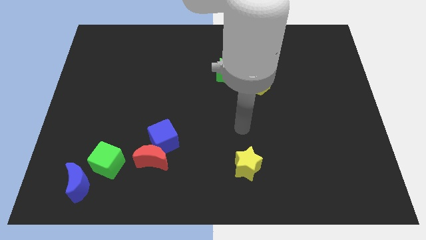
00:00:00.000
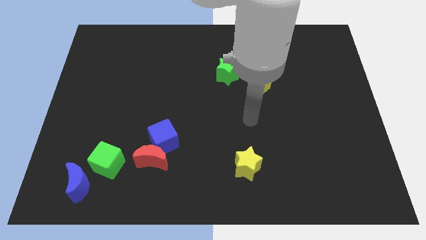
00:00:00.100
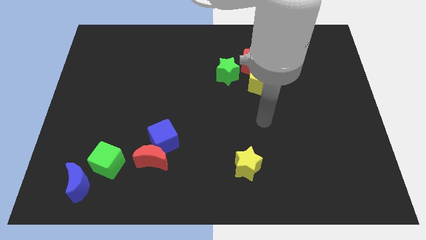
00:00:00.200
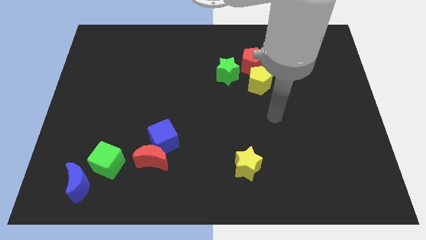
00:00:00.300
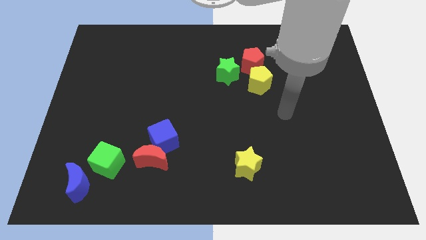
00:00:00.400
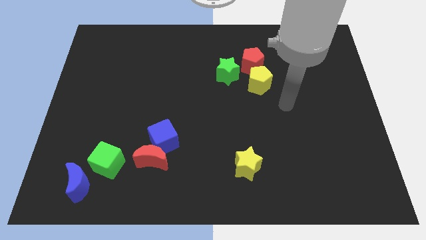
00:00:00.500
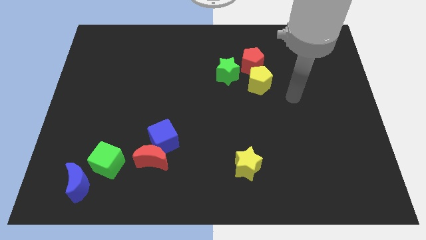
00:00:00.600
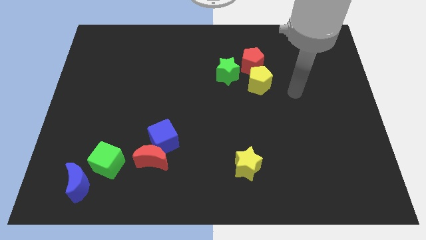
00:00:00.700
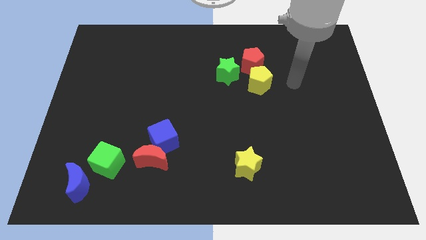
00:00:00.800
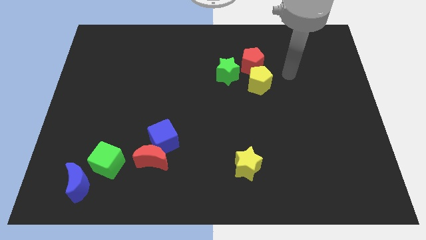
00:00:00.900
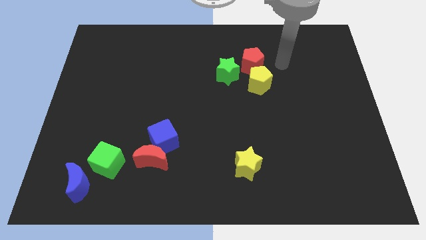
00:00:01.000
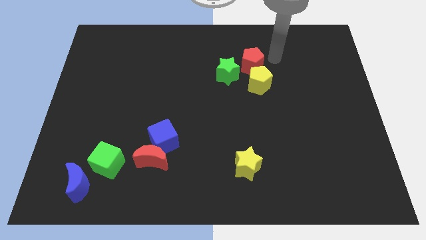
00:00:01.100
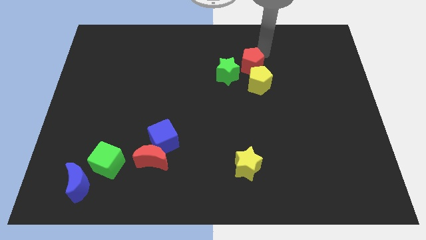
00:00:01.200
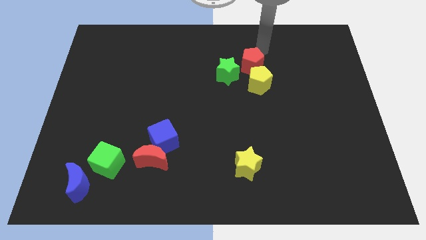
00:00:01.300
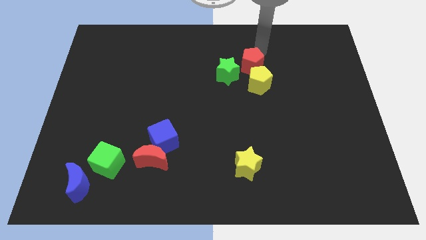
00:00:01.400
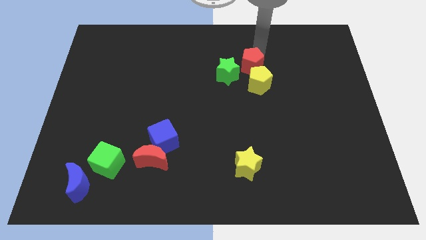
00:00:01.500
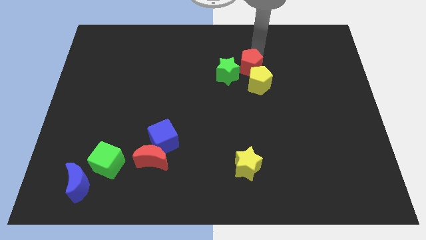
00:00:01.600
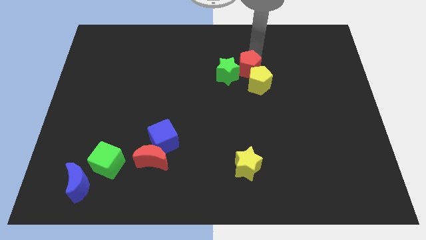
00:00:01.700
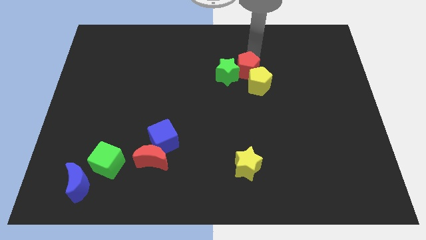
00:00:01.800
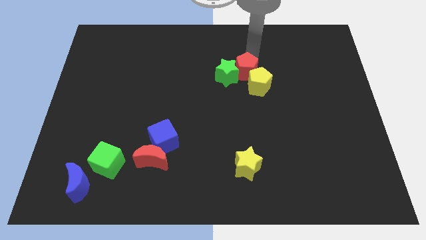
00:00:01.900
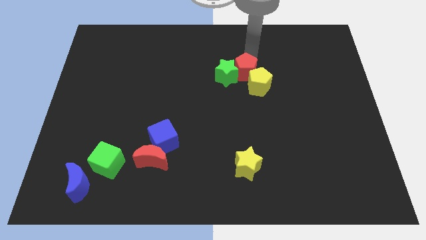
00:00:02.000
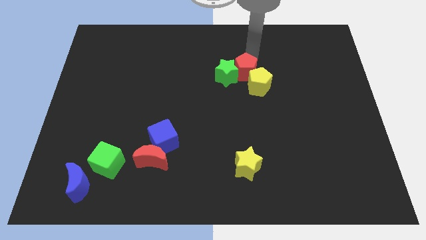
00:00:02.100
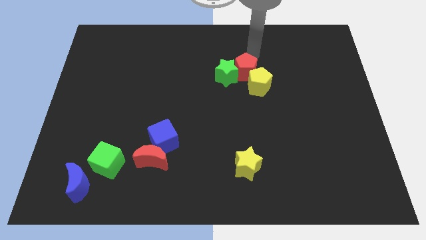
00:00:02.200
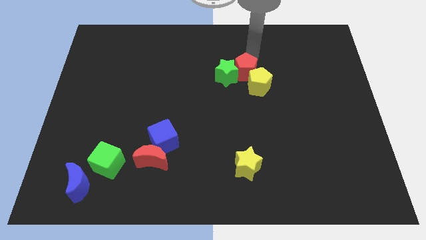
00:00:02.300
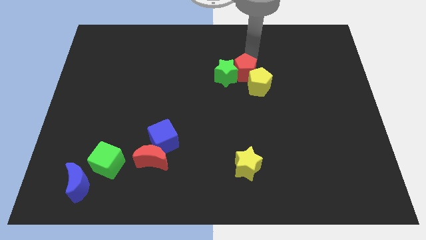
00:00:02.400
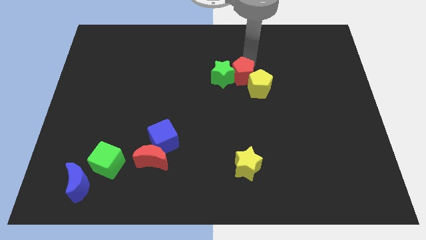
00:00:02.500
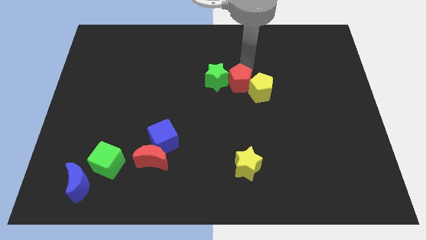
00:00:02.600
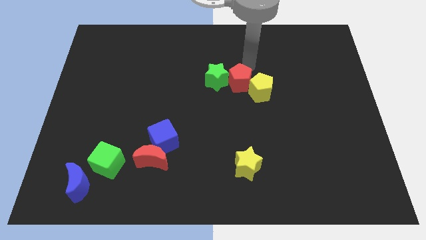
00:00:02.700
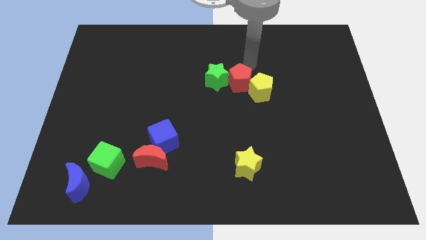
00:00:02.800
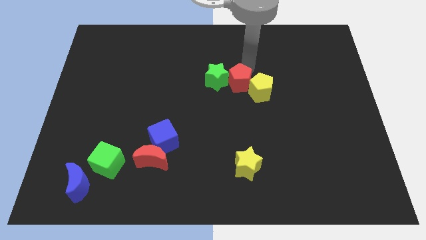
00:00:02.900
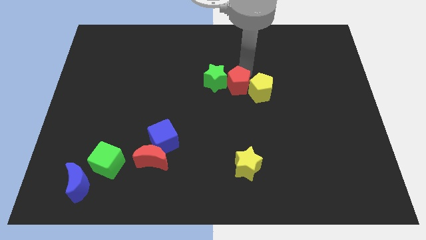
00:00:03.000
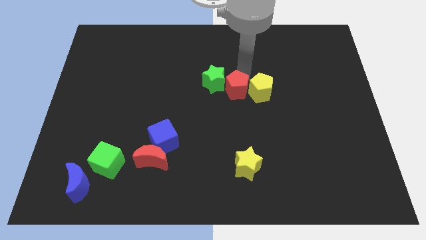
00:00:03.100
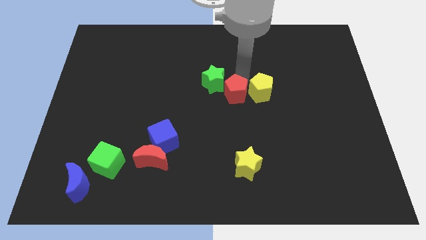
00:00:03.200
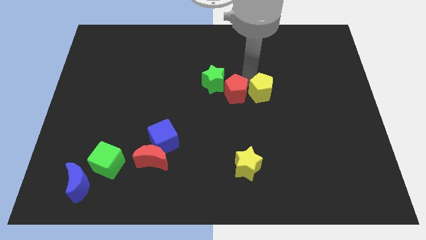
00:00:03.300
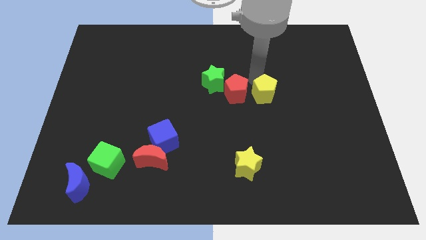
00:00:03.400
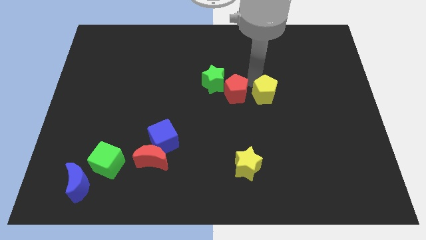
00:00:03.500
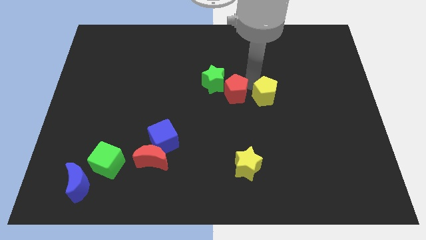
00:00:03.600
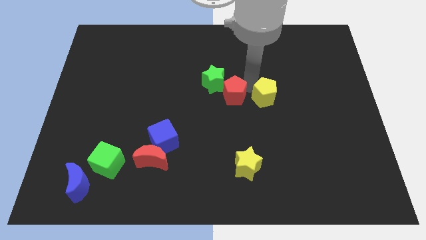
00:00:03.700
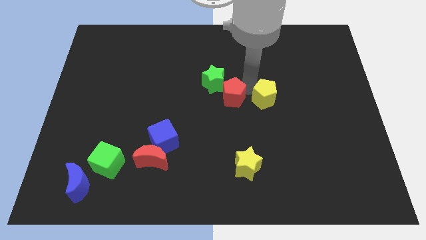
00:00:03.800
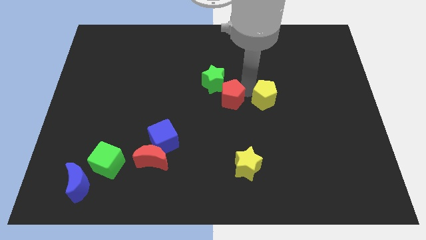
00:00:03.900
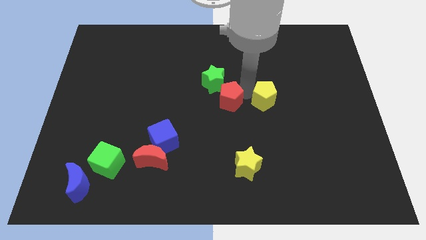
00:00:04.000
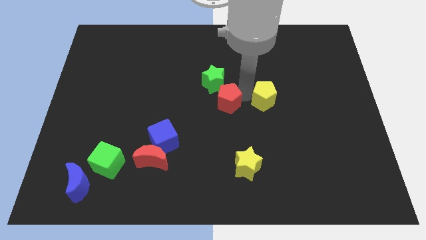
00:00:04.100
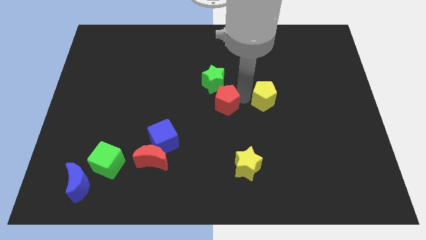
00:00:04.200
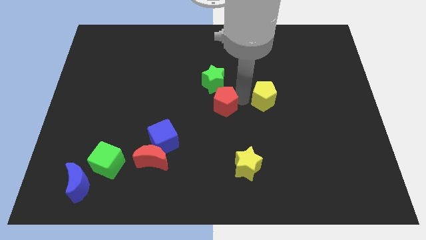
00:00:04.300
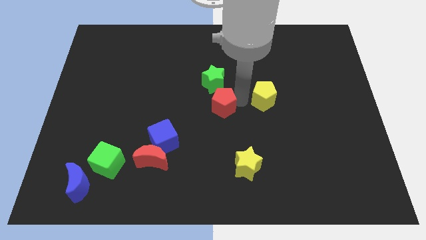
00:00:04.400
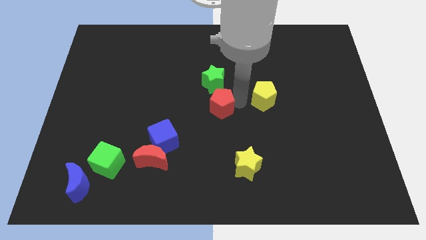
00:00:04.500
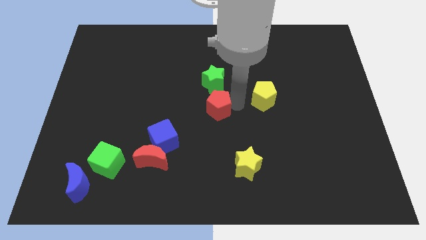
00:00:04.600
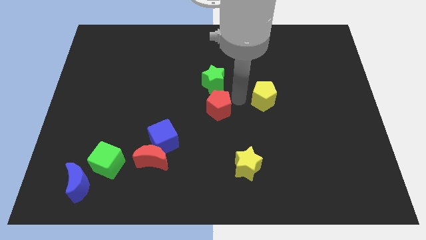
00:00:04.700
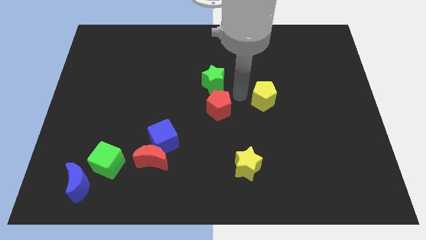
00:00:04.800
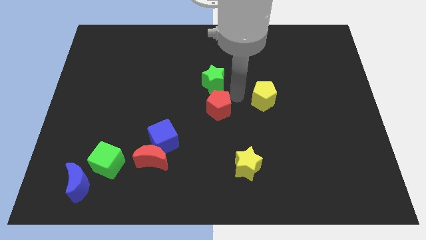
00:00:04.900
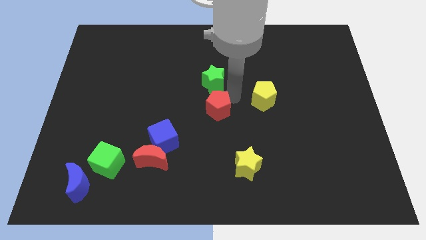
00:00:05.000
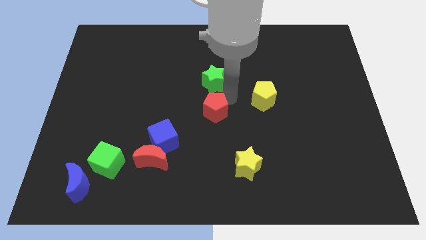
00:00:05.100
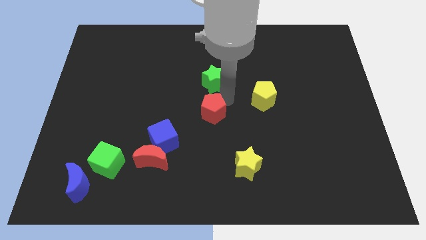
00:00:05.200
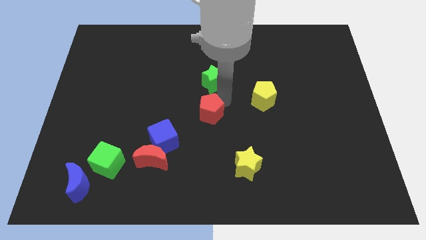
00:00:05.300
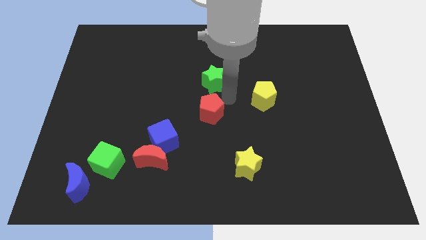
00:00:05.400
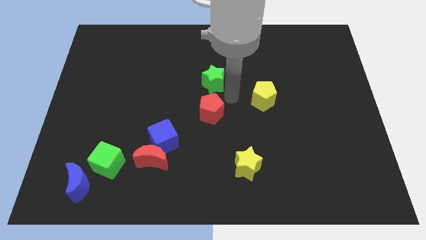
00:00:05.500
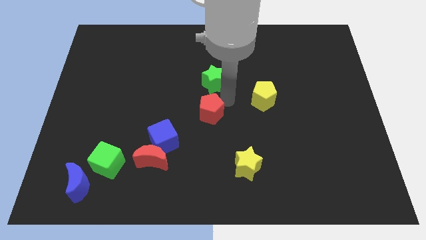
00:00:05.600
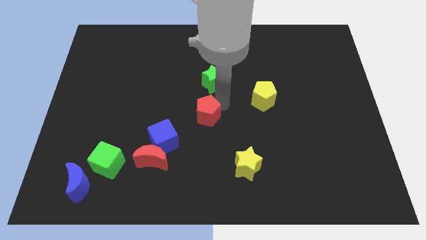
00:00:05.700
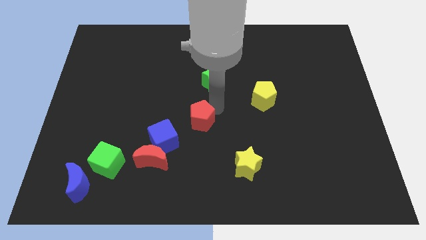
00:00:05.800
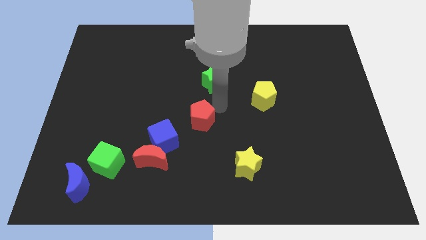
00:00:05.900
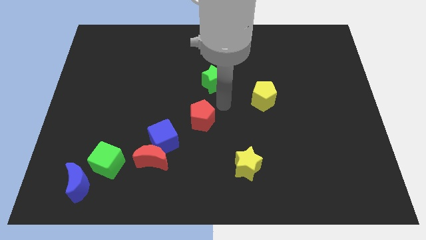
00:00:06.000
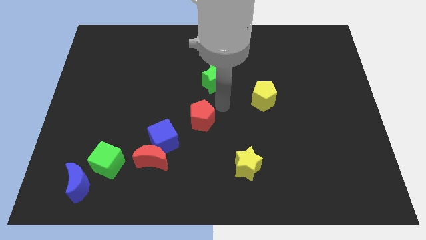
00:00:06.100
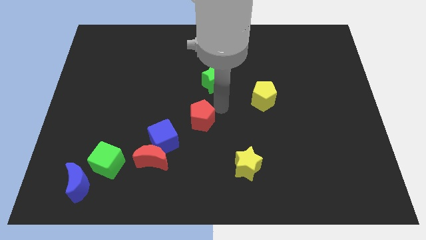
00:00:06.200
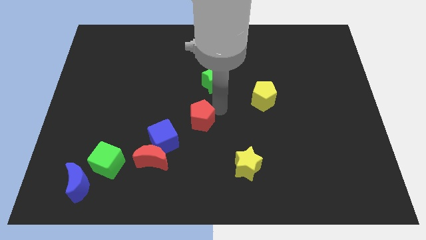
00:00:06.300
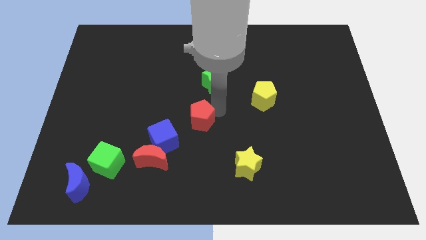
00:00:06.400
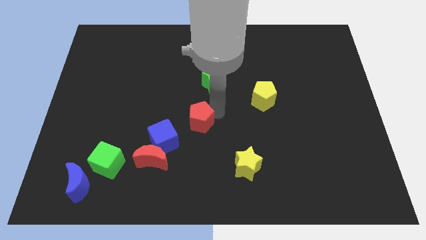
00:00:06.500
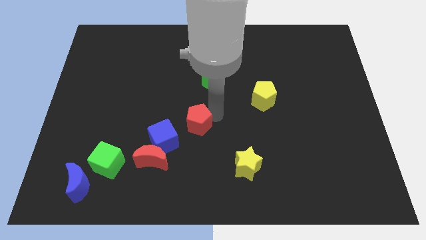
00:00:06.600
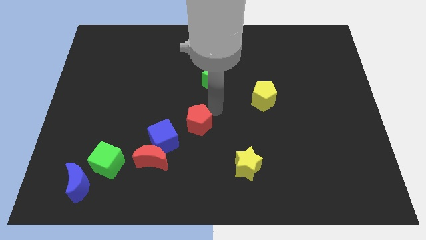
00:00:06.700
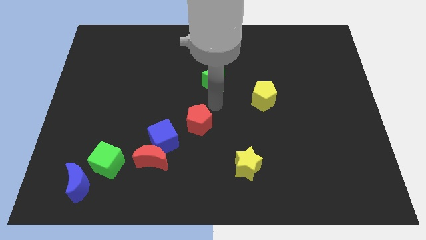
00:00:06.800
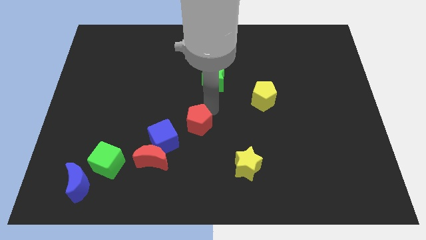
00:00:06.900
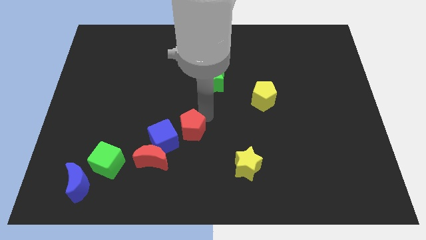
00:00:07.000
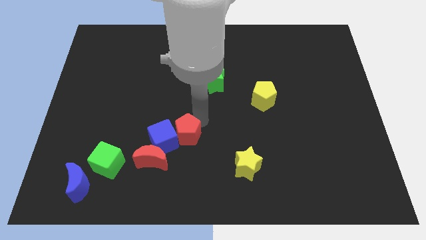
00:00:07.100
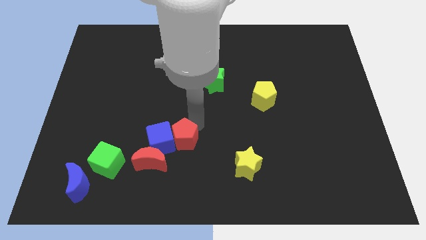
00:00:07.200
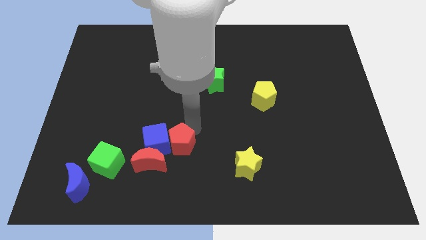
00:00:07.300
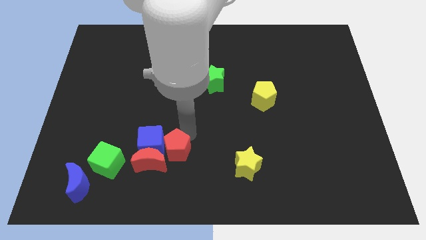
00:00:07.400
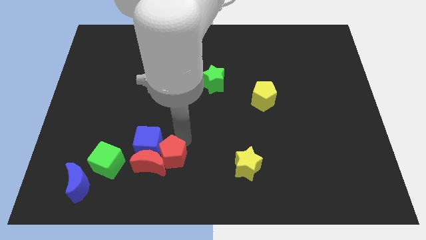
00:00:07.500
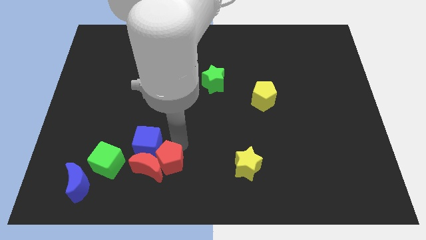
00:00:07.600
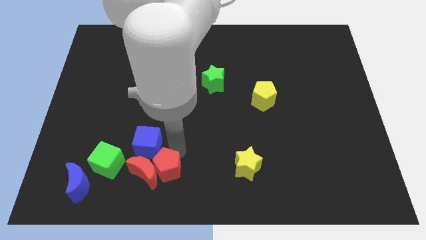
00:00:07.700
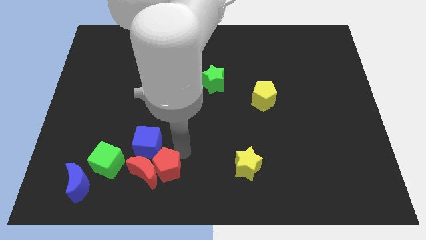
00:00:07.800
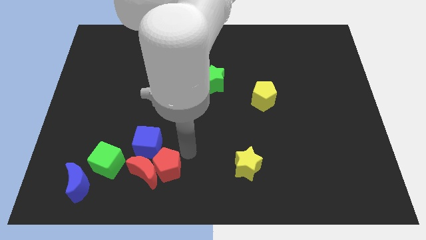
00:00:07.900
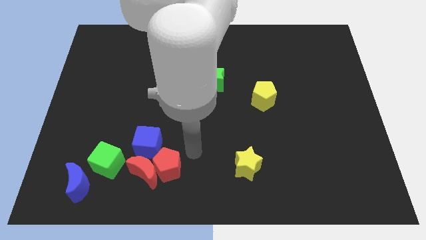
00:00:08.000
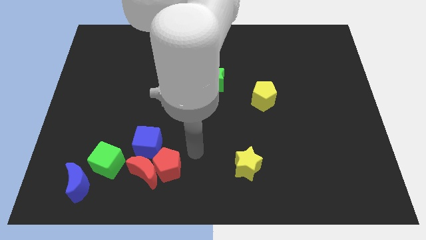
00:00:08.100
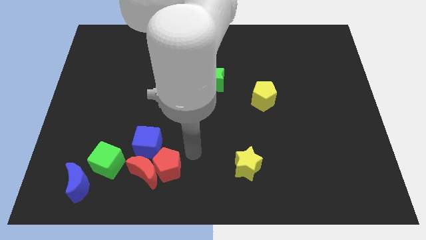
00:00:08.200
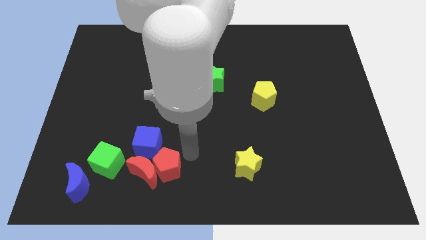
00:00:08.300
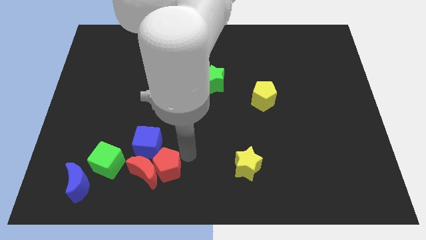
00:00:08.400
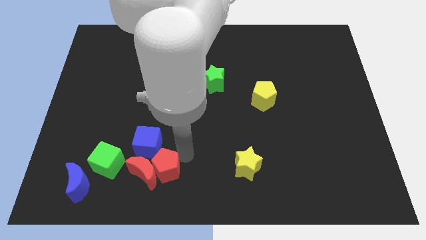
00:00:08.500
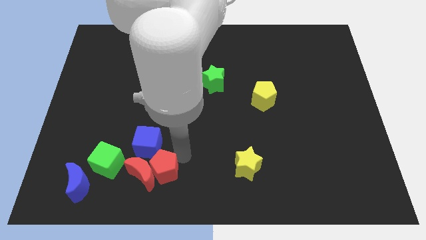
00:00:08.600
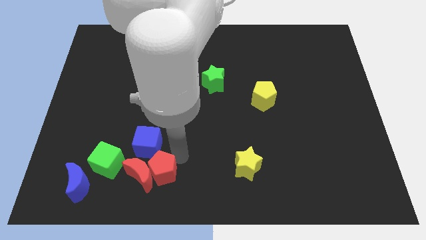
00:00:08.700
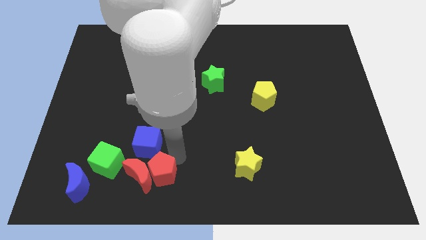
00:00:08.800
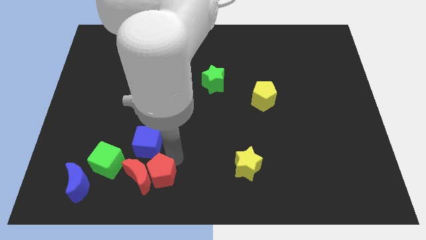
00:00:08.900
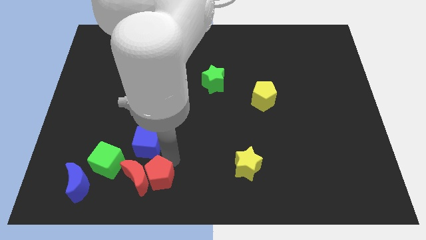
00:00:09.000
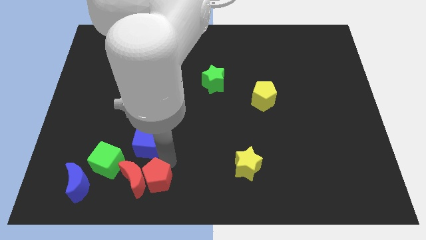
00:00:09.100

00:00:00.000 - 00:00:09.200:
push the red pentagon just right of the blue moon
